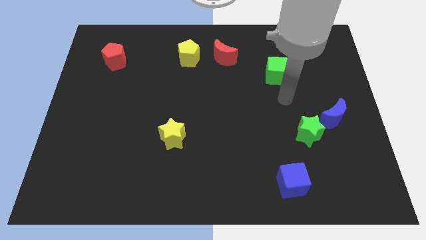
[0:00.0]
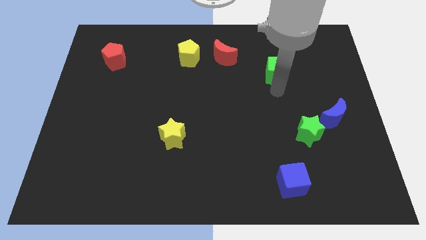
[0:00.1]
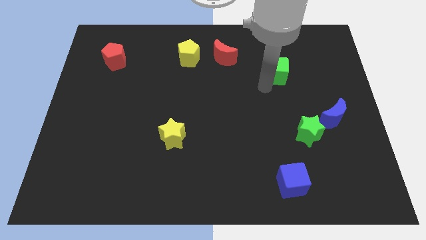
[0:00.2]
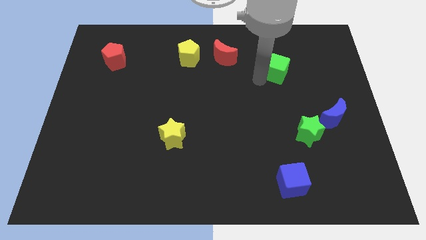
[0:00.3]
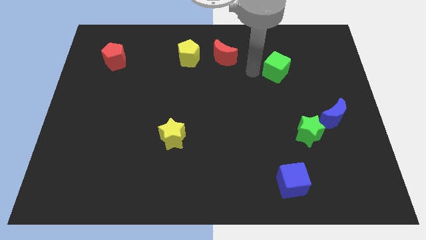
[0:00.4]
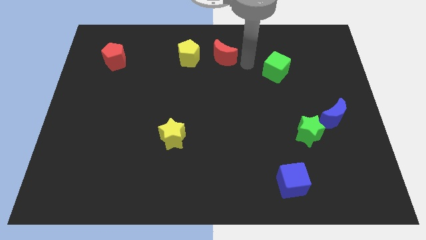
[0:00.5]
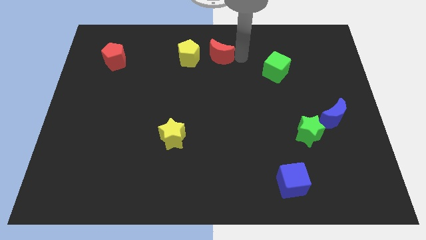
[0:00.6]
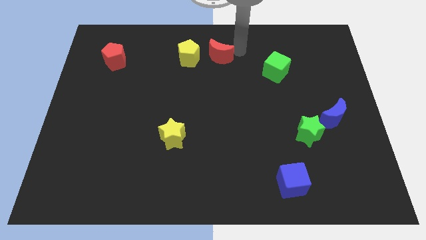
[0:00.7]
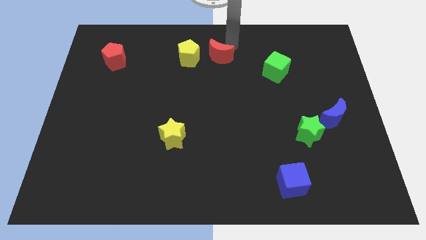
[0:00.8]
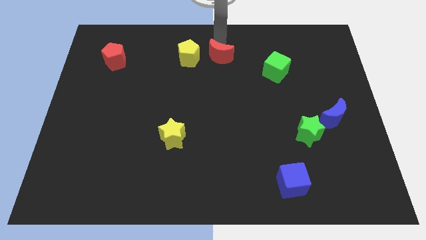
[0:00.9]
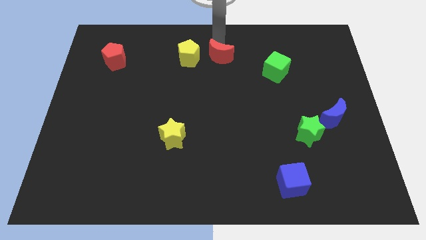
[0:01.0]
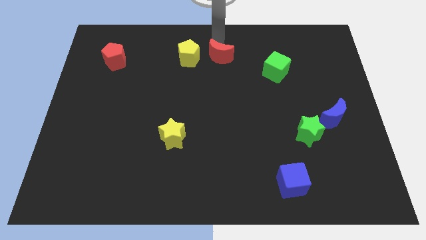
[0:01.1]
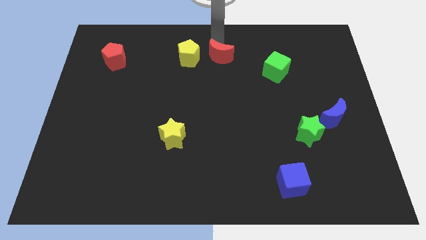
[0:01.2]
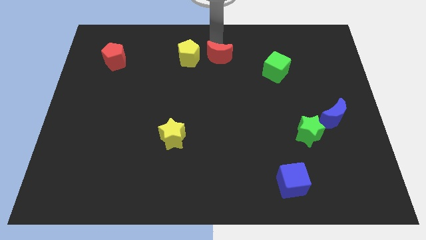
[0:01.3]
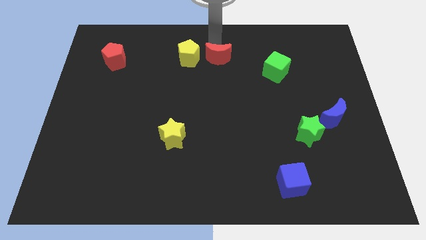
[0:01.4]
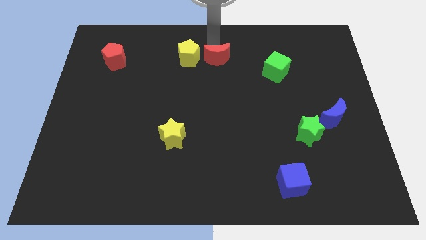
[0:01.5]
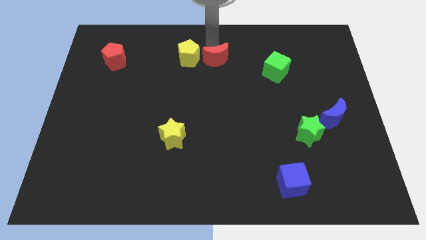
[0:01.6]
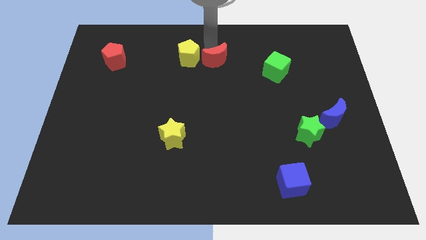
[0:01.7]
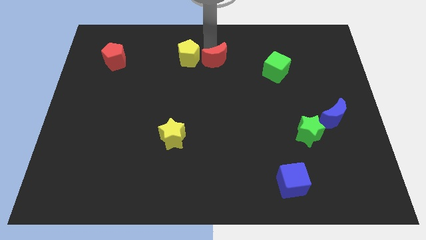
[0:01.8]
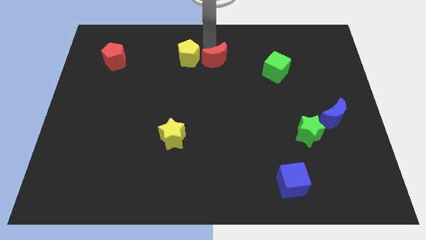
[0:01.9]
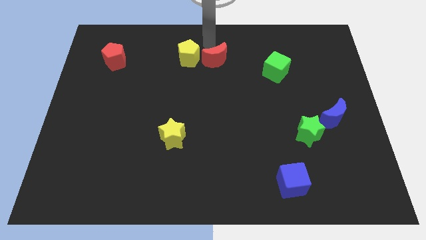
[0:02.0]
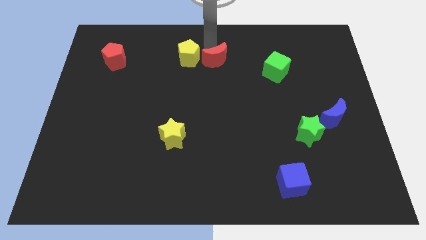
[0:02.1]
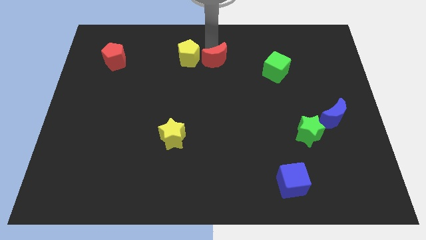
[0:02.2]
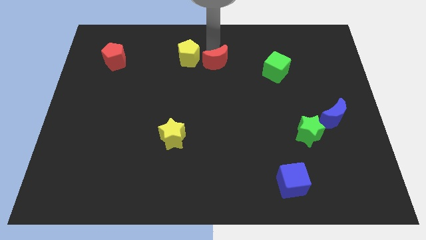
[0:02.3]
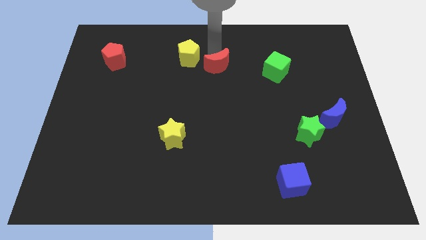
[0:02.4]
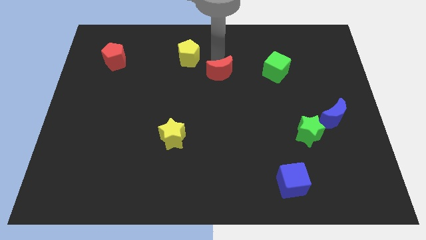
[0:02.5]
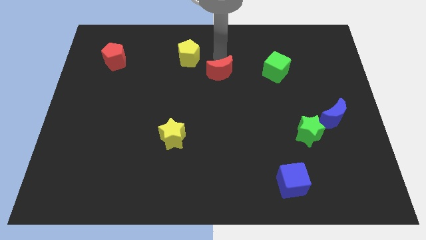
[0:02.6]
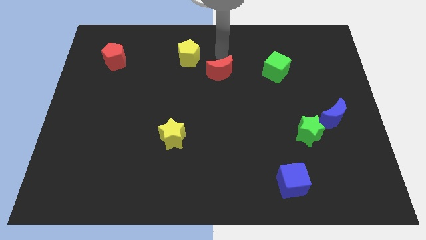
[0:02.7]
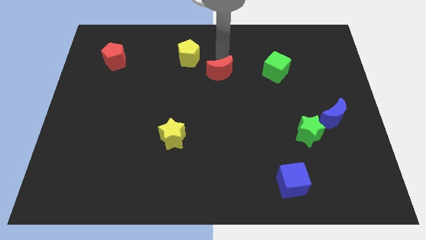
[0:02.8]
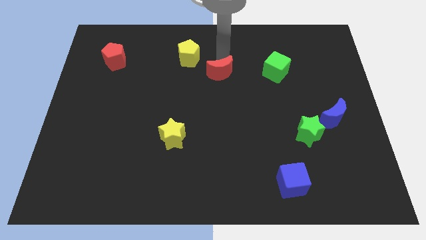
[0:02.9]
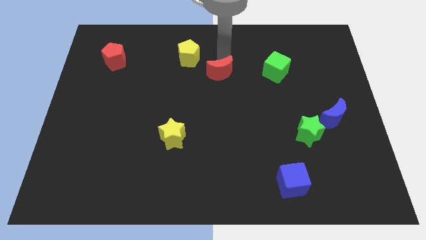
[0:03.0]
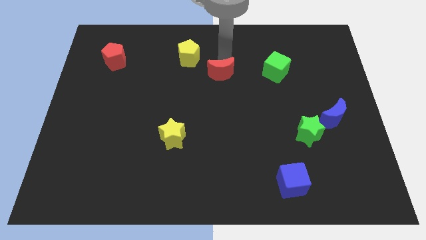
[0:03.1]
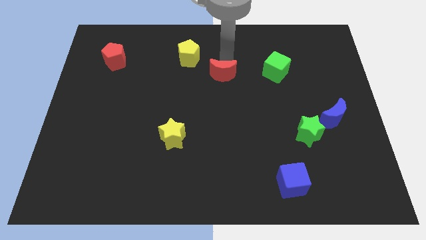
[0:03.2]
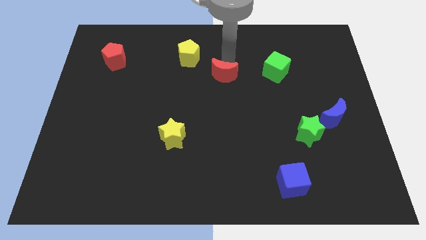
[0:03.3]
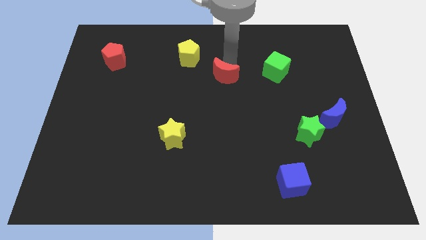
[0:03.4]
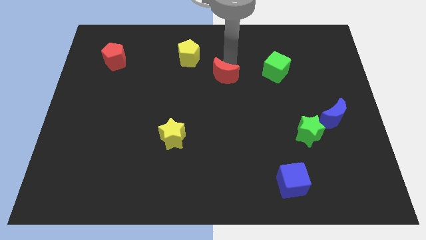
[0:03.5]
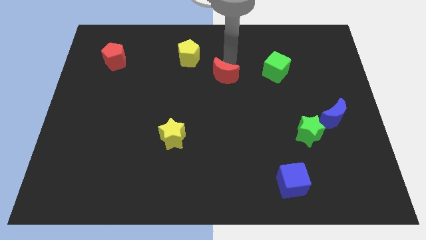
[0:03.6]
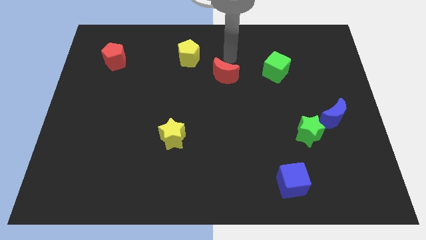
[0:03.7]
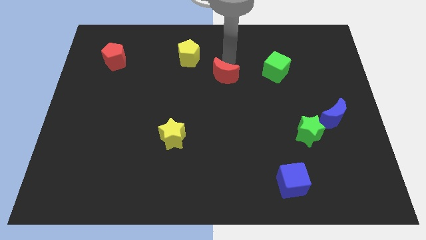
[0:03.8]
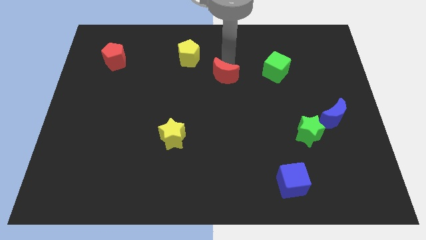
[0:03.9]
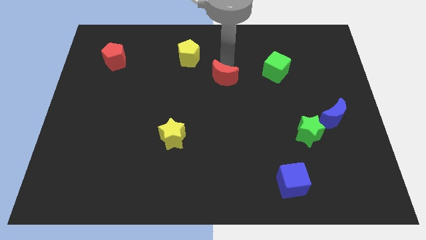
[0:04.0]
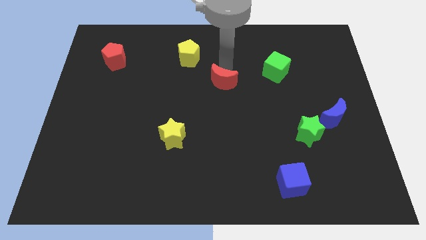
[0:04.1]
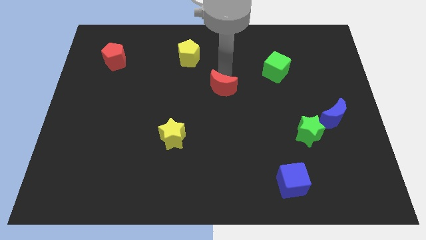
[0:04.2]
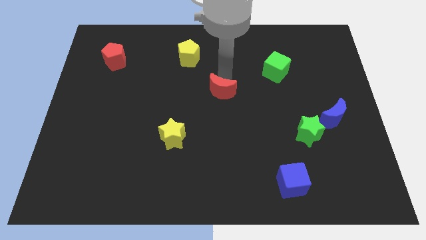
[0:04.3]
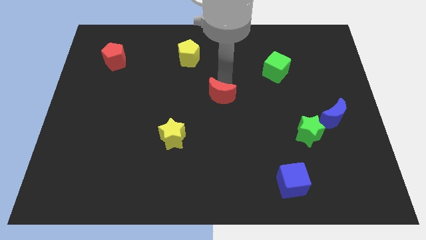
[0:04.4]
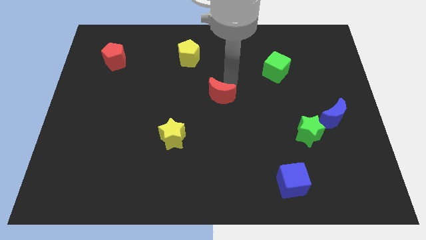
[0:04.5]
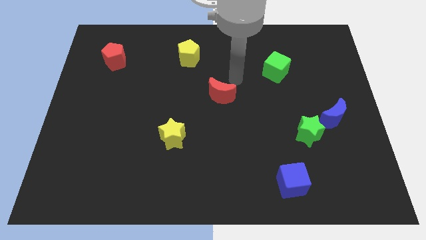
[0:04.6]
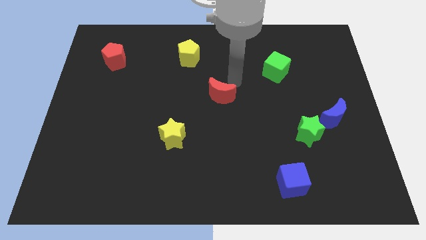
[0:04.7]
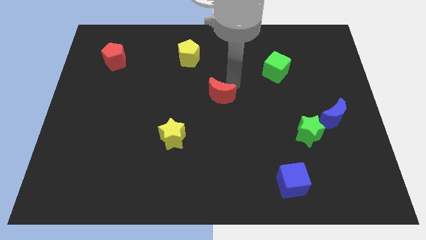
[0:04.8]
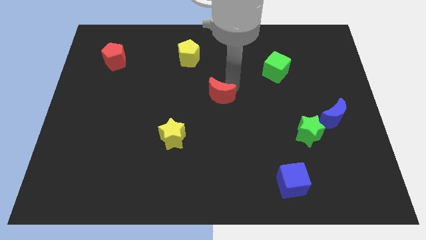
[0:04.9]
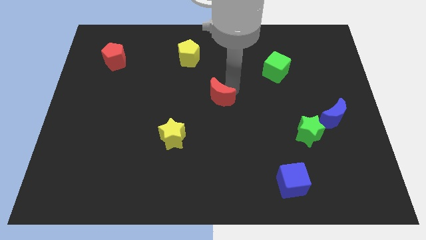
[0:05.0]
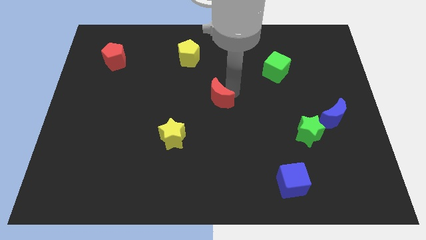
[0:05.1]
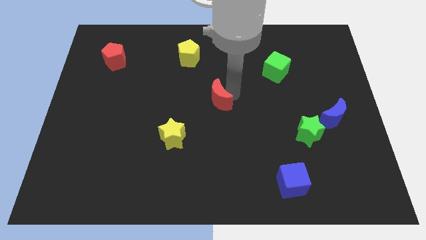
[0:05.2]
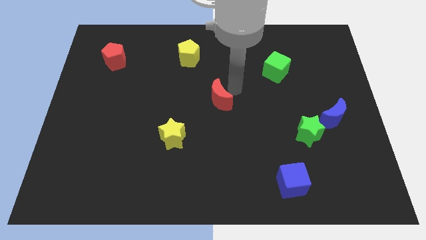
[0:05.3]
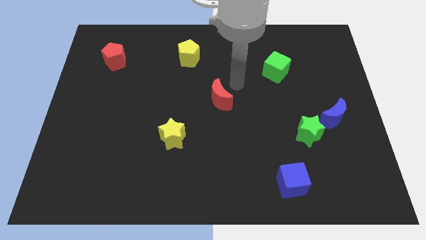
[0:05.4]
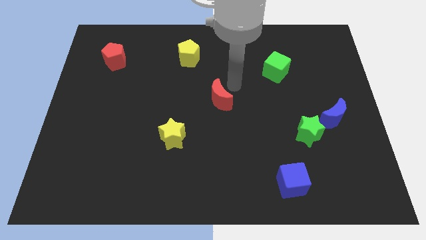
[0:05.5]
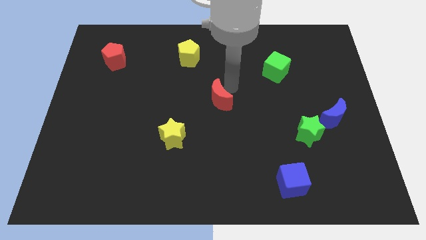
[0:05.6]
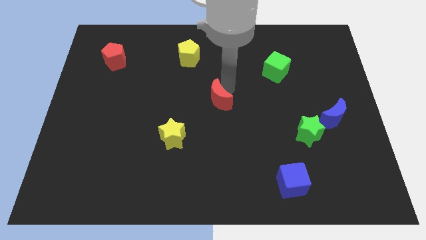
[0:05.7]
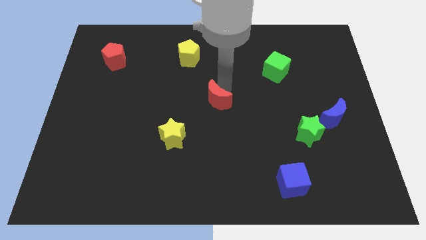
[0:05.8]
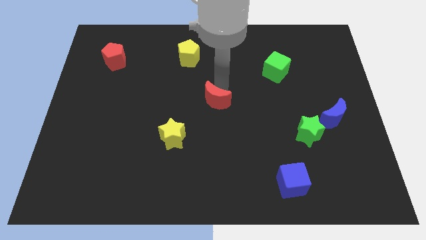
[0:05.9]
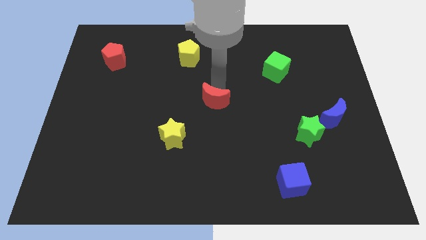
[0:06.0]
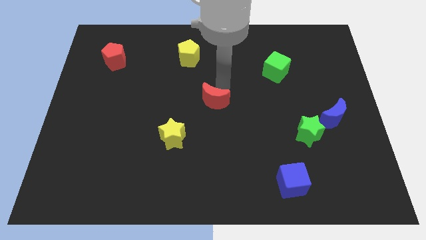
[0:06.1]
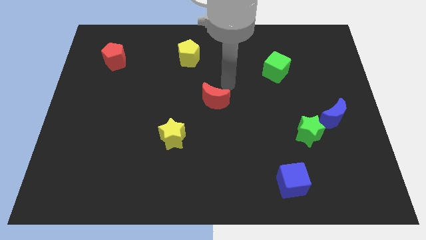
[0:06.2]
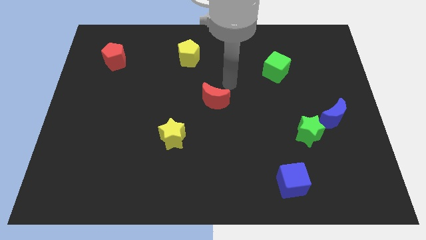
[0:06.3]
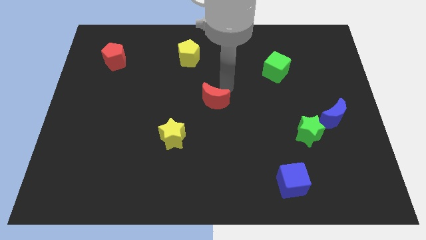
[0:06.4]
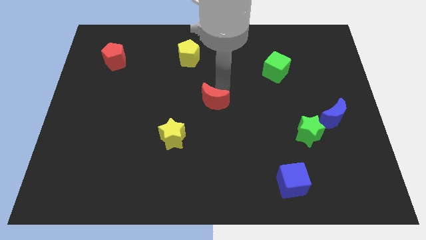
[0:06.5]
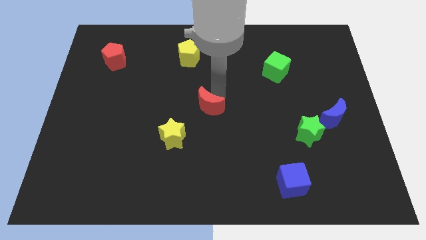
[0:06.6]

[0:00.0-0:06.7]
push the red moon to the top right of the yellow star
